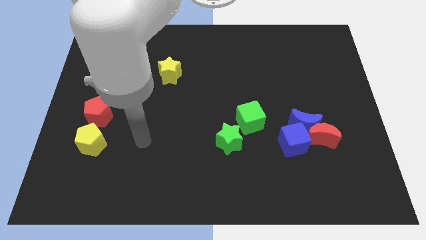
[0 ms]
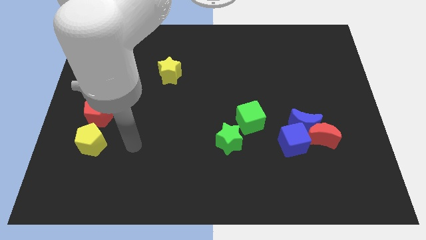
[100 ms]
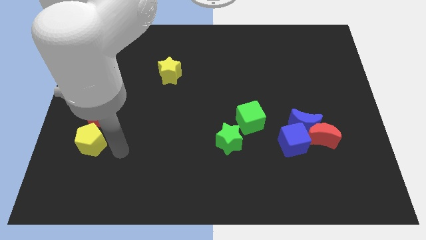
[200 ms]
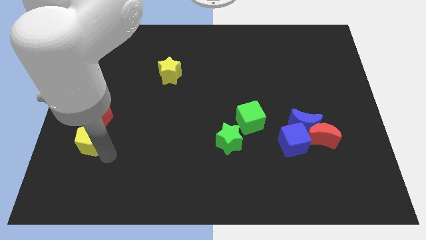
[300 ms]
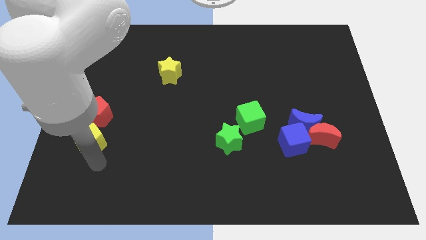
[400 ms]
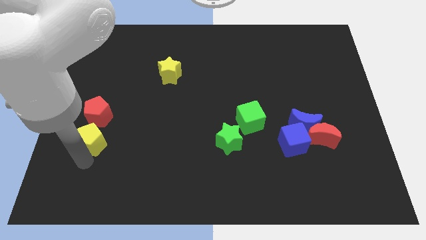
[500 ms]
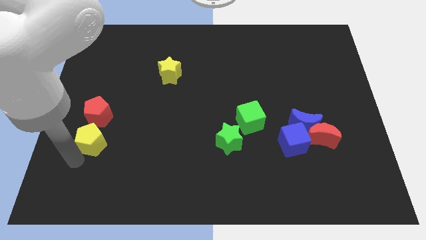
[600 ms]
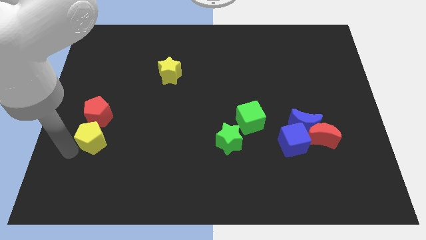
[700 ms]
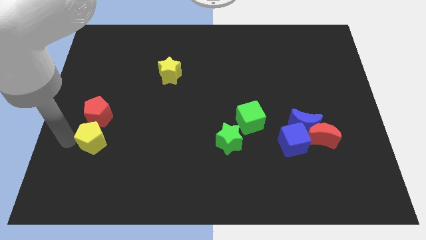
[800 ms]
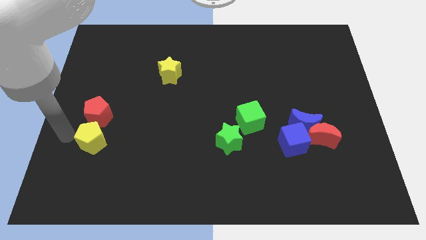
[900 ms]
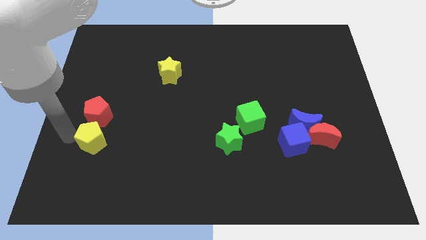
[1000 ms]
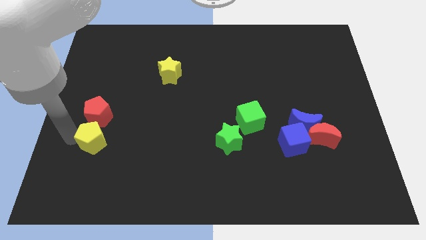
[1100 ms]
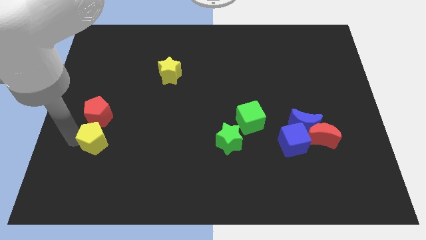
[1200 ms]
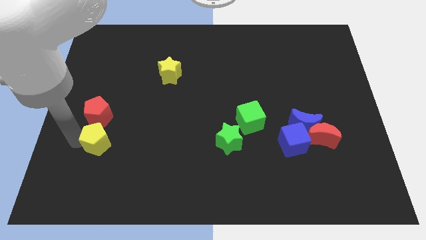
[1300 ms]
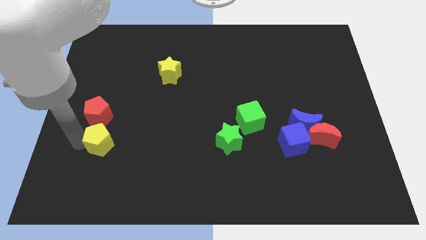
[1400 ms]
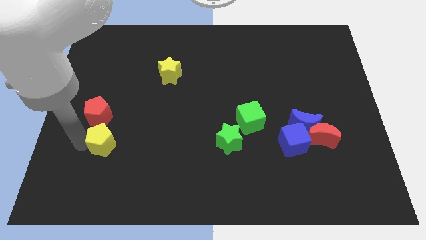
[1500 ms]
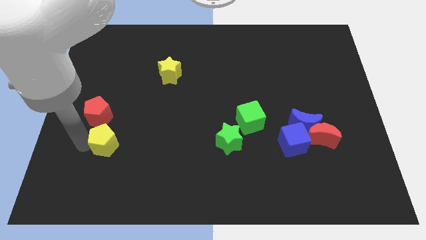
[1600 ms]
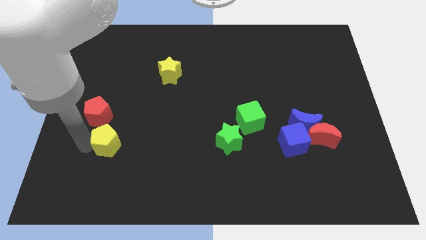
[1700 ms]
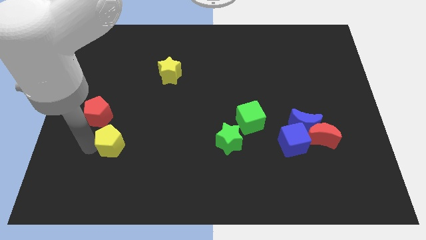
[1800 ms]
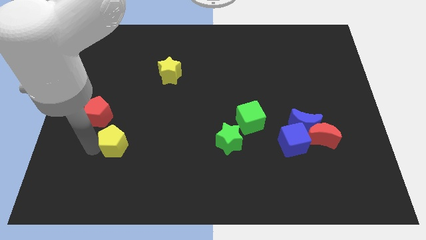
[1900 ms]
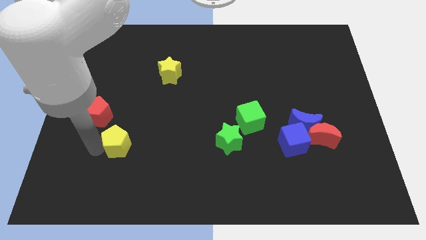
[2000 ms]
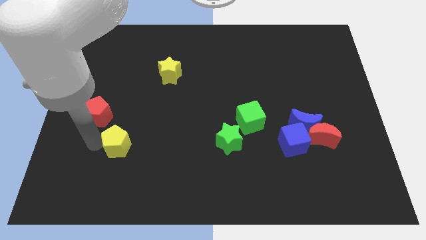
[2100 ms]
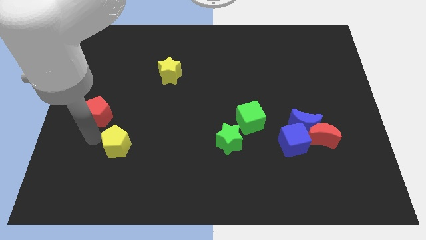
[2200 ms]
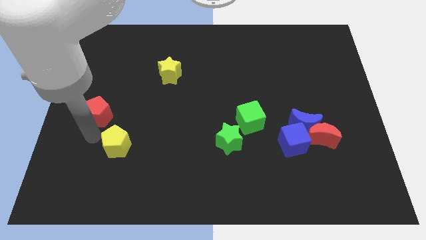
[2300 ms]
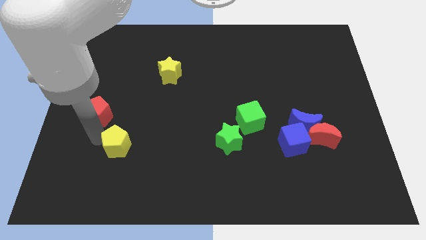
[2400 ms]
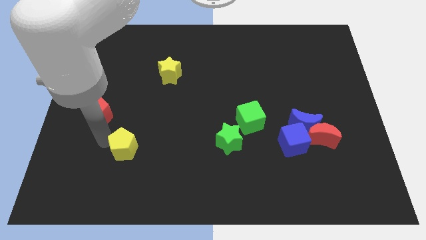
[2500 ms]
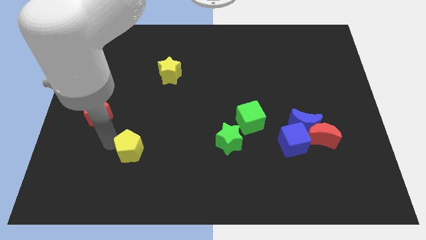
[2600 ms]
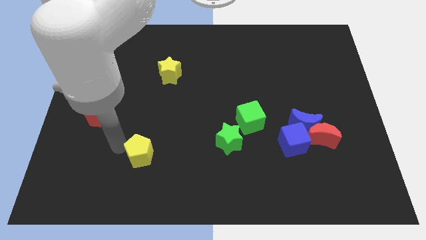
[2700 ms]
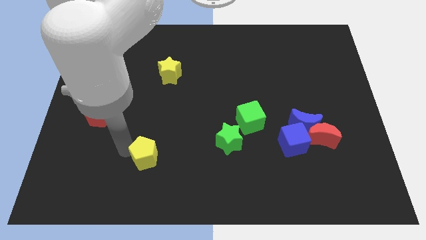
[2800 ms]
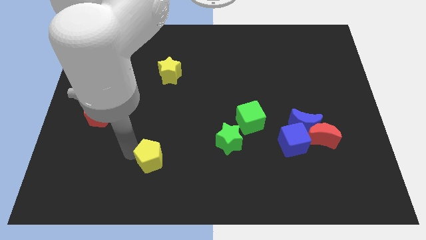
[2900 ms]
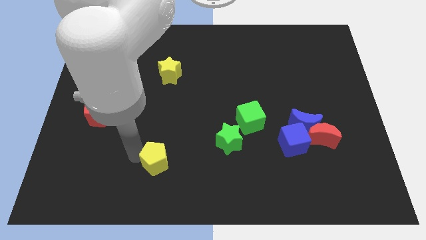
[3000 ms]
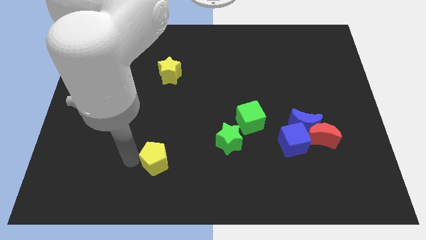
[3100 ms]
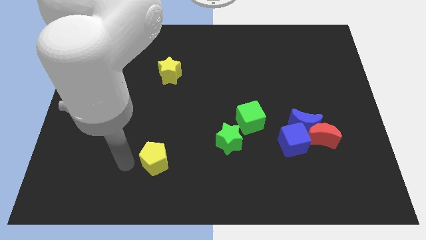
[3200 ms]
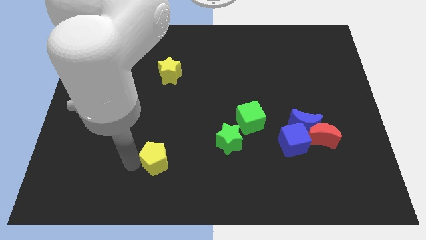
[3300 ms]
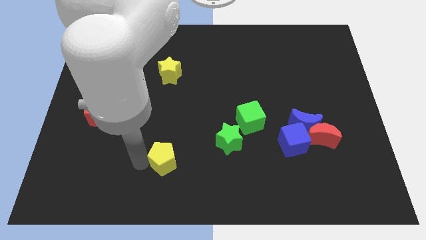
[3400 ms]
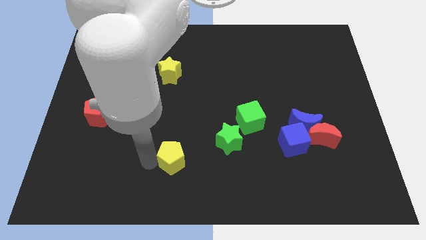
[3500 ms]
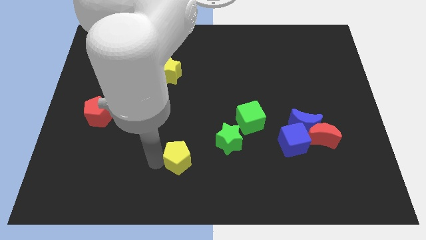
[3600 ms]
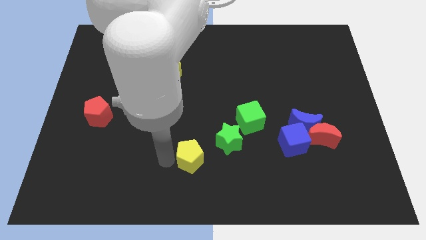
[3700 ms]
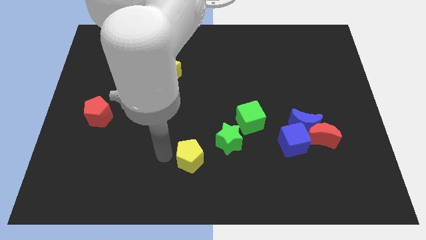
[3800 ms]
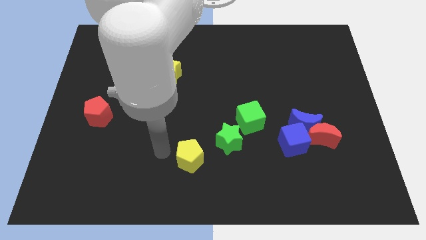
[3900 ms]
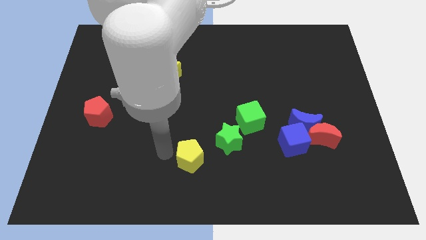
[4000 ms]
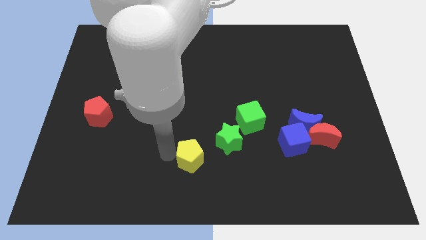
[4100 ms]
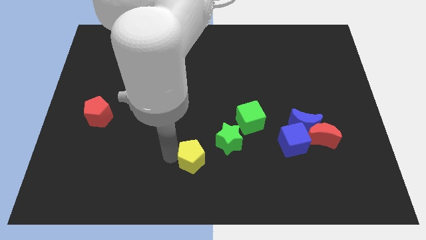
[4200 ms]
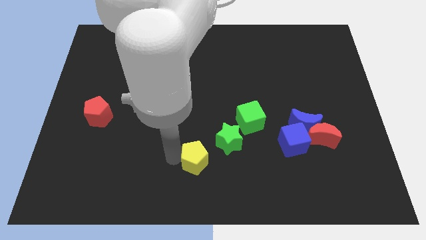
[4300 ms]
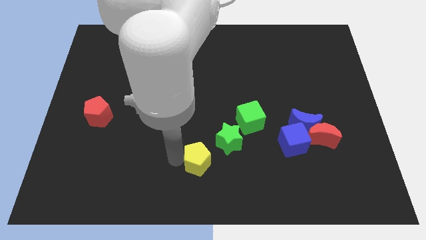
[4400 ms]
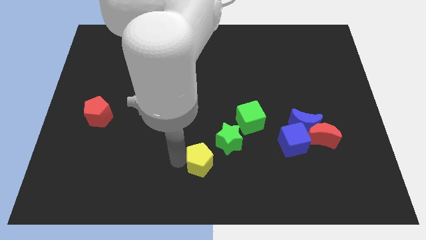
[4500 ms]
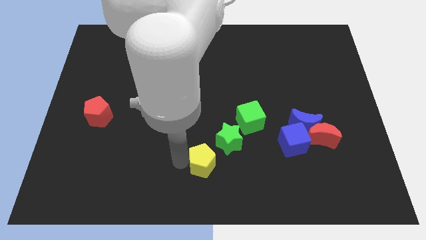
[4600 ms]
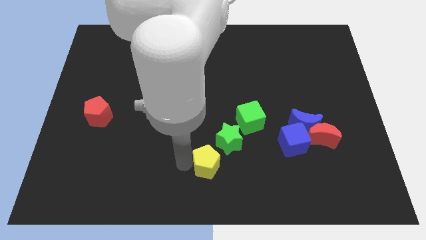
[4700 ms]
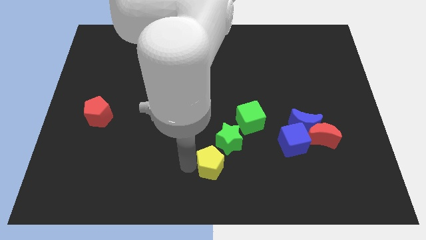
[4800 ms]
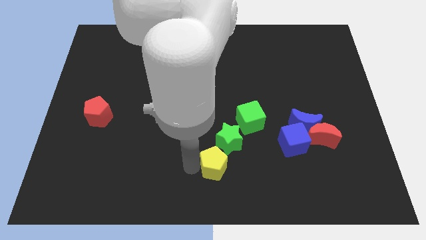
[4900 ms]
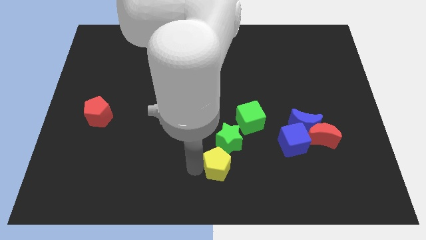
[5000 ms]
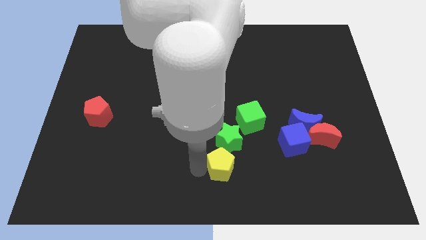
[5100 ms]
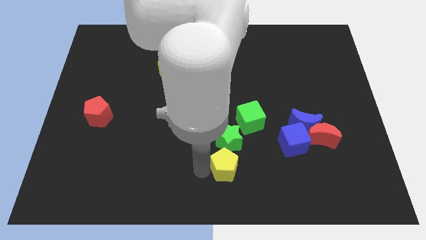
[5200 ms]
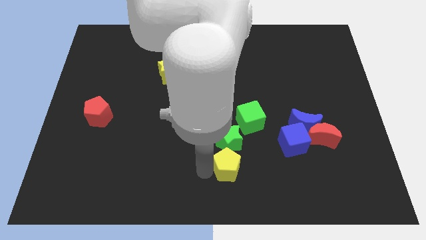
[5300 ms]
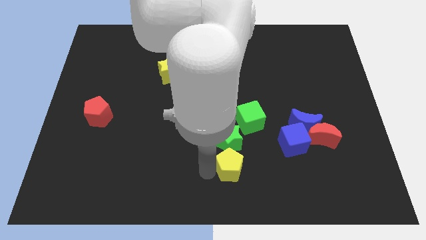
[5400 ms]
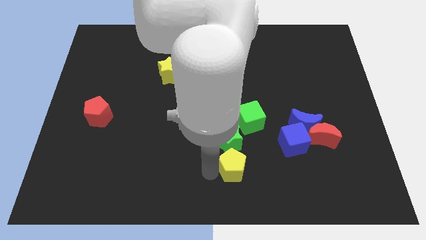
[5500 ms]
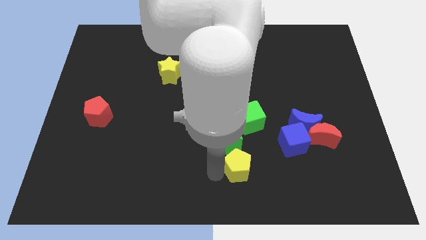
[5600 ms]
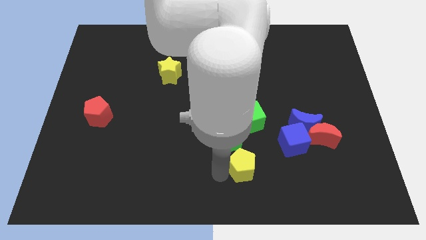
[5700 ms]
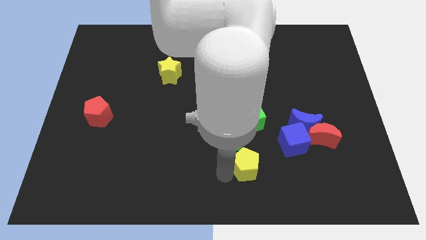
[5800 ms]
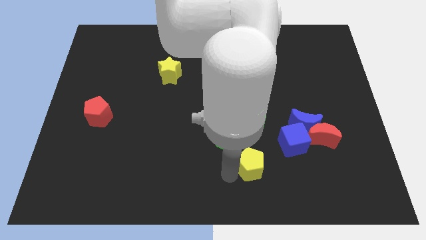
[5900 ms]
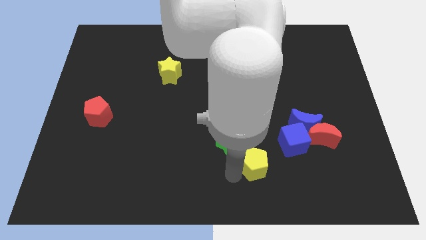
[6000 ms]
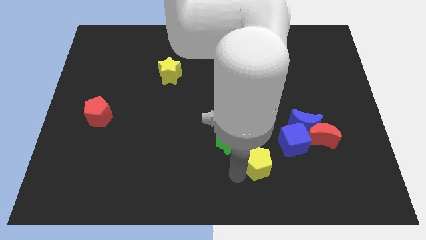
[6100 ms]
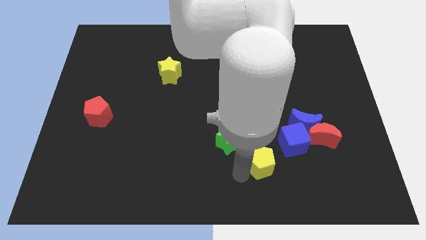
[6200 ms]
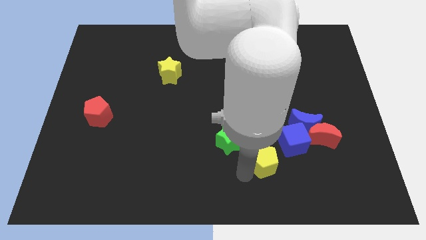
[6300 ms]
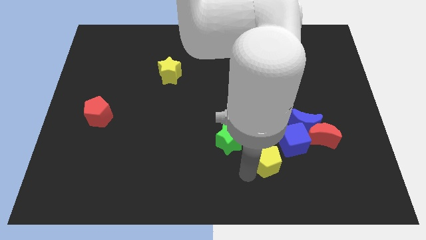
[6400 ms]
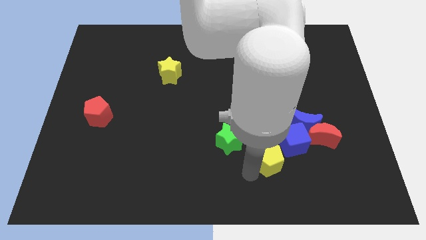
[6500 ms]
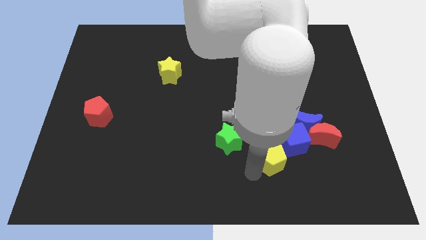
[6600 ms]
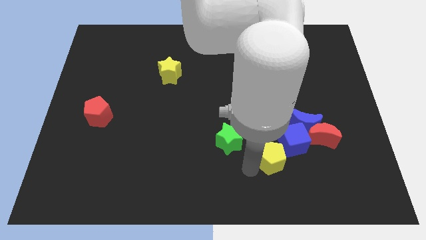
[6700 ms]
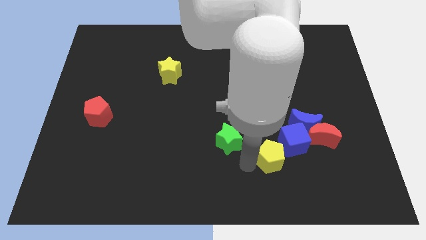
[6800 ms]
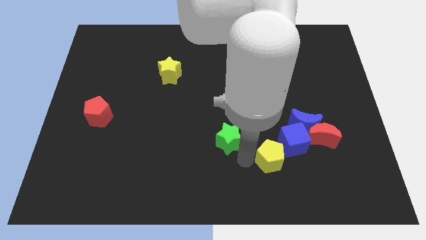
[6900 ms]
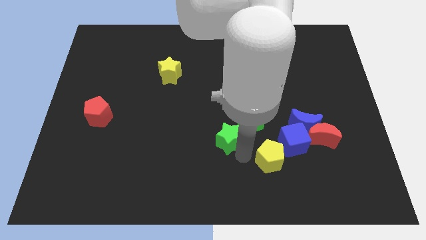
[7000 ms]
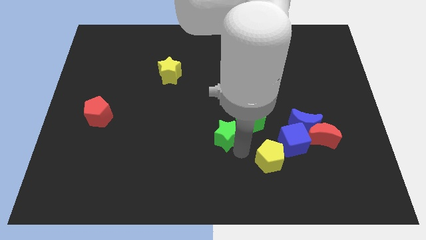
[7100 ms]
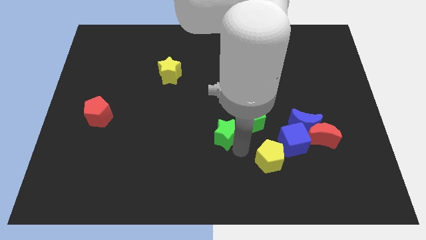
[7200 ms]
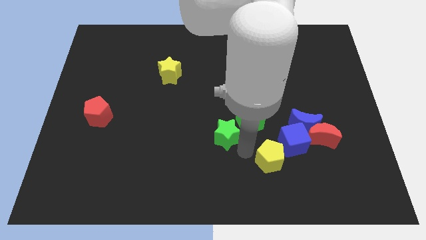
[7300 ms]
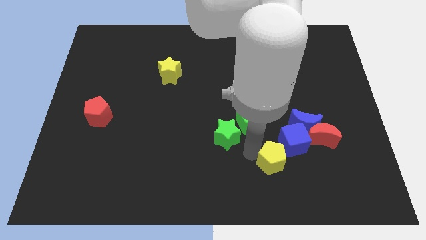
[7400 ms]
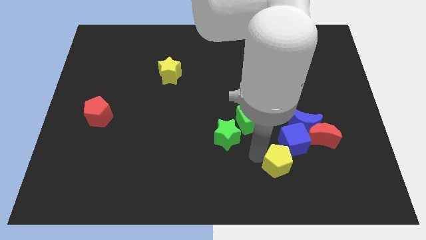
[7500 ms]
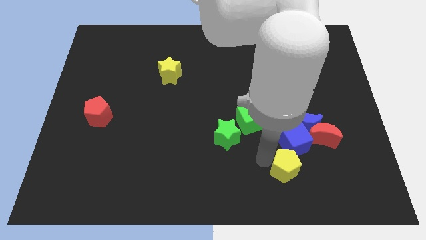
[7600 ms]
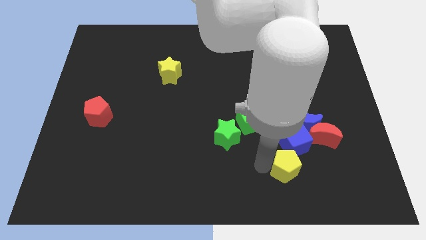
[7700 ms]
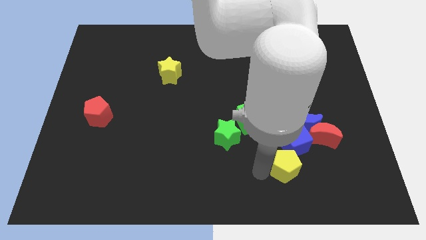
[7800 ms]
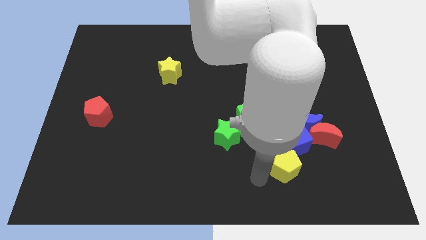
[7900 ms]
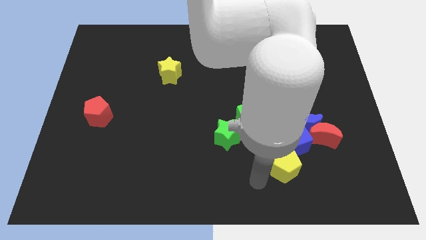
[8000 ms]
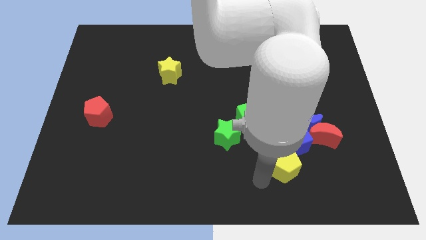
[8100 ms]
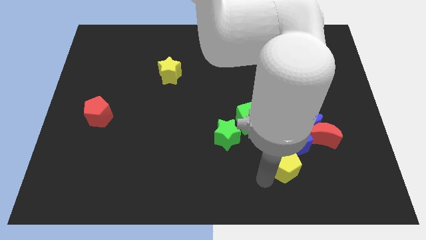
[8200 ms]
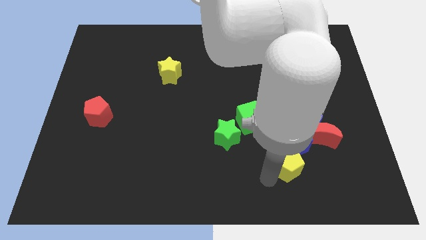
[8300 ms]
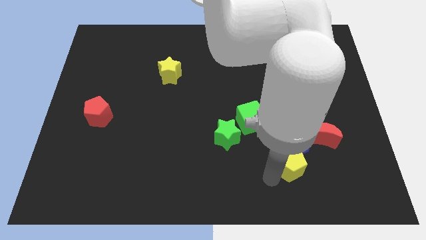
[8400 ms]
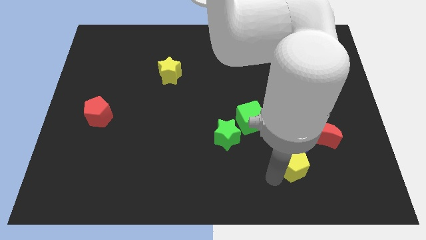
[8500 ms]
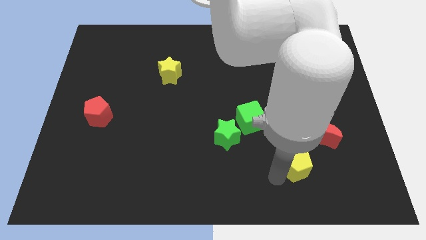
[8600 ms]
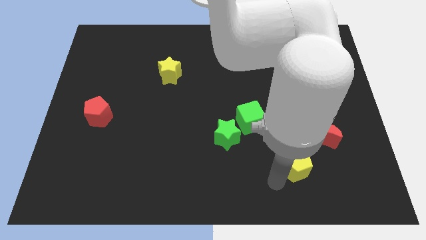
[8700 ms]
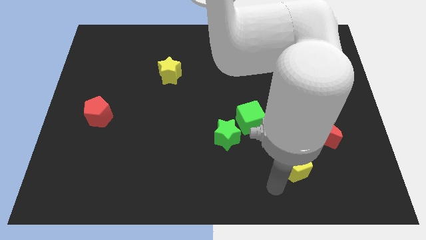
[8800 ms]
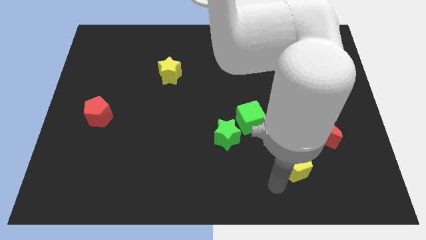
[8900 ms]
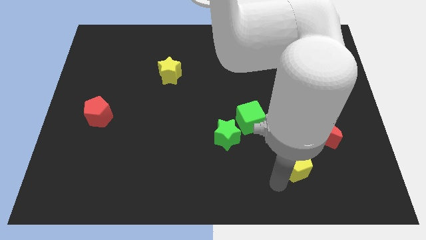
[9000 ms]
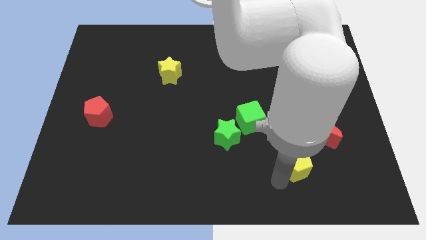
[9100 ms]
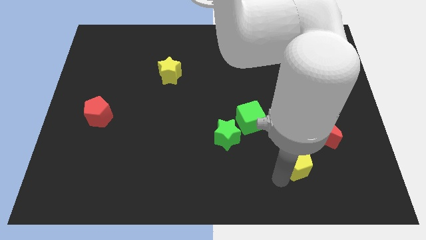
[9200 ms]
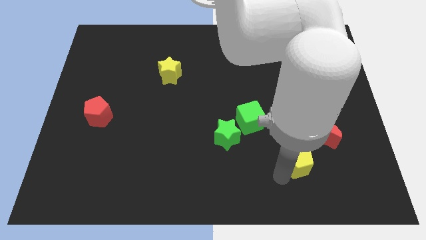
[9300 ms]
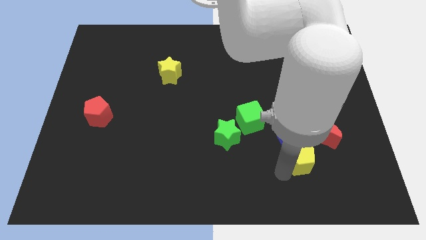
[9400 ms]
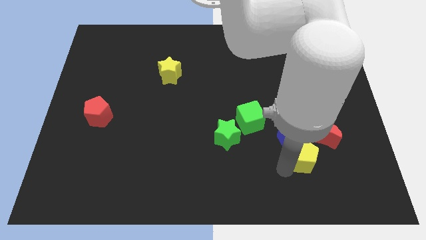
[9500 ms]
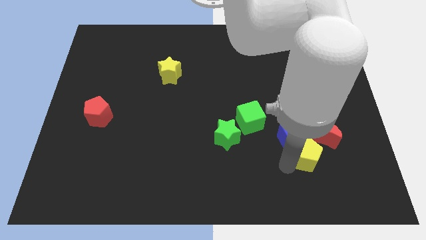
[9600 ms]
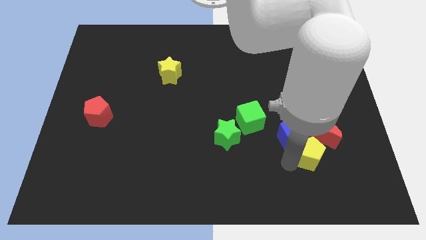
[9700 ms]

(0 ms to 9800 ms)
move the yellow pentagon towards the red moon
